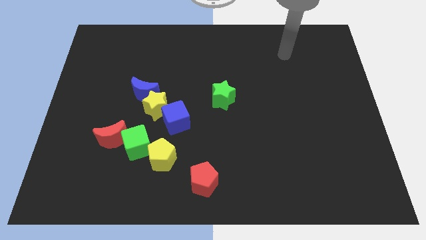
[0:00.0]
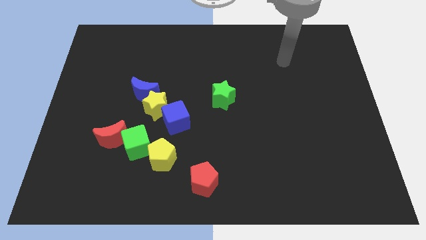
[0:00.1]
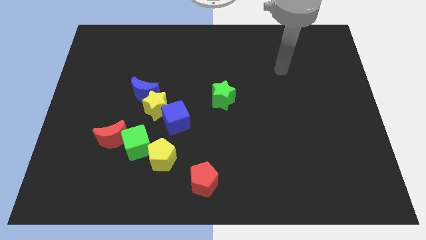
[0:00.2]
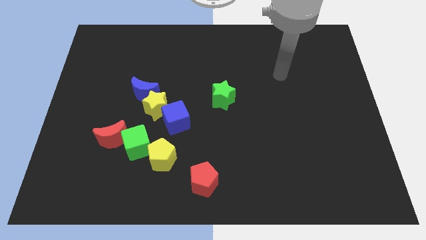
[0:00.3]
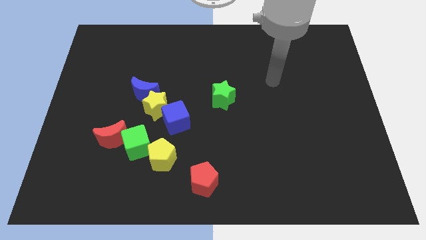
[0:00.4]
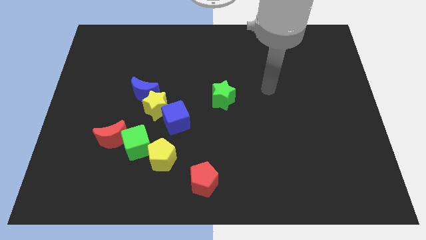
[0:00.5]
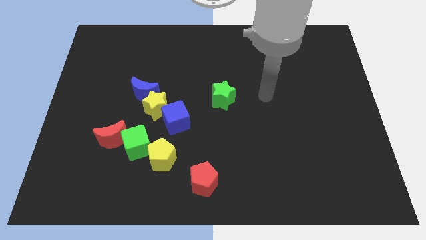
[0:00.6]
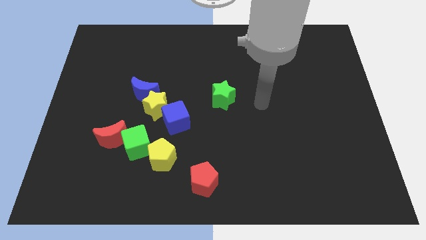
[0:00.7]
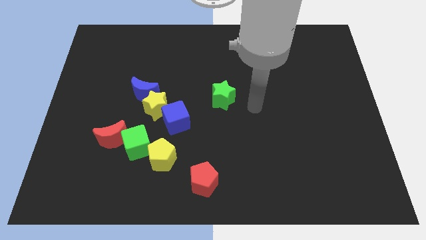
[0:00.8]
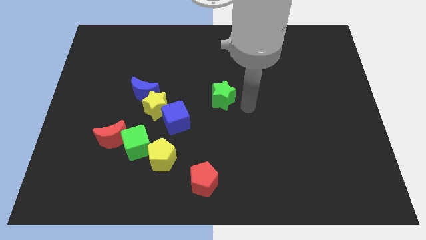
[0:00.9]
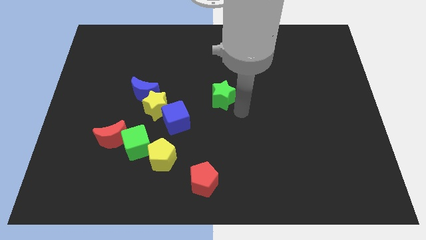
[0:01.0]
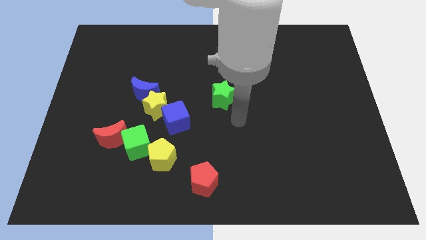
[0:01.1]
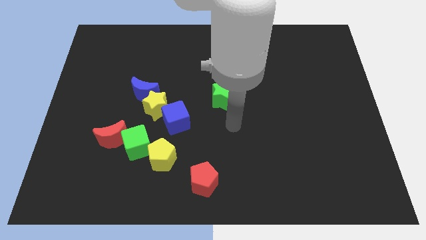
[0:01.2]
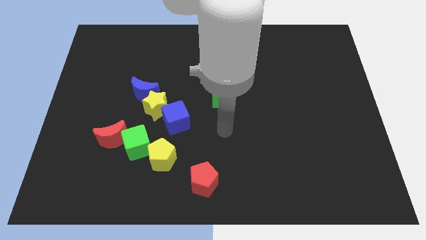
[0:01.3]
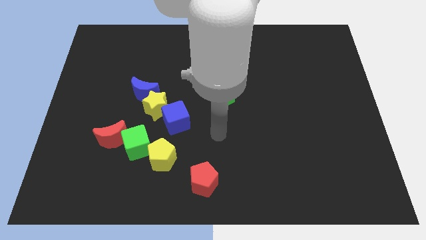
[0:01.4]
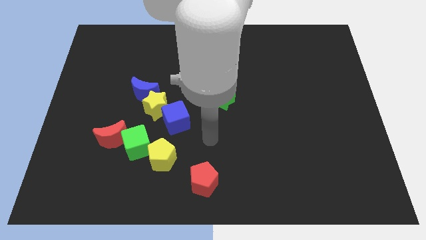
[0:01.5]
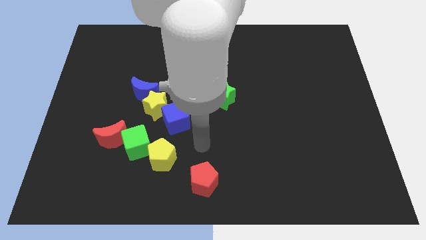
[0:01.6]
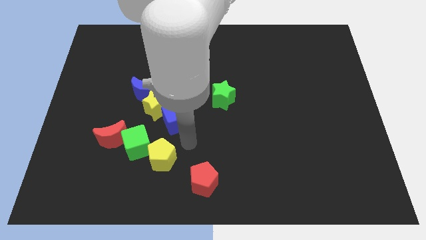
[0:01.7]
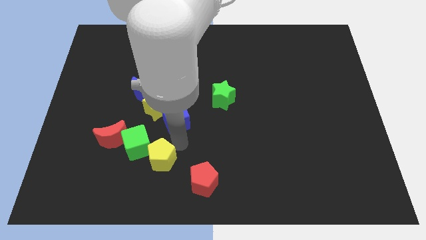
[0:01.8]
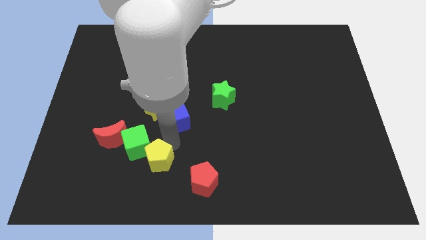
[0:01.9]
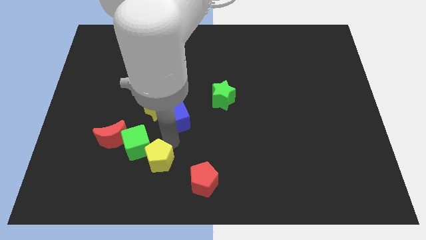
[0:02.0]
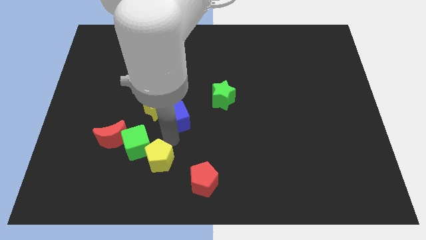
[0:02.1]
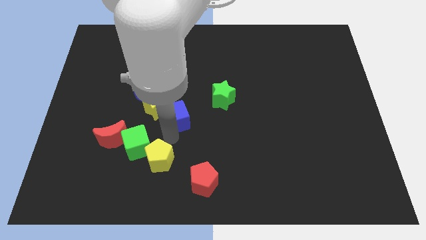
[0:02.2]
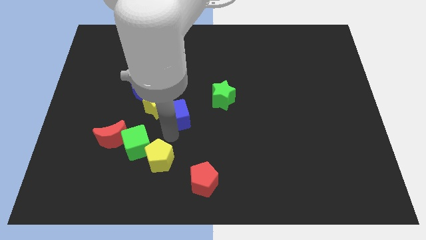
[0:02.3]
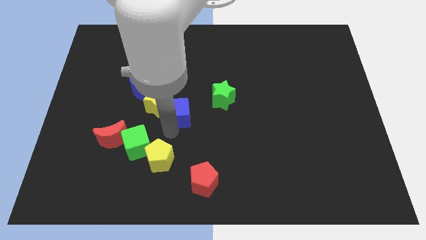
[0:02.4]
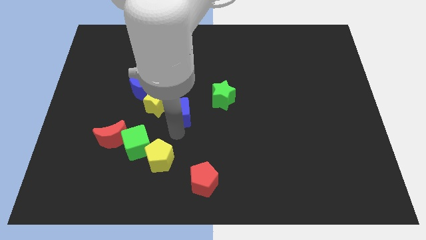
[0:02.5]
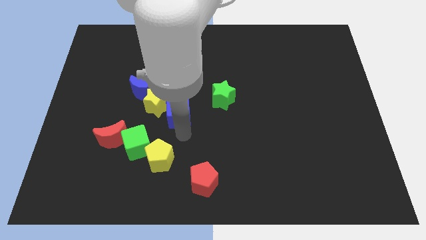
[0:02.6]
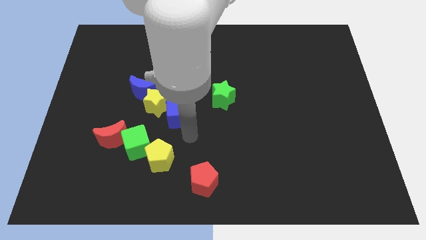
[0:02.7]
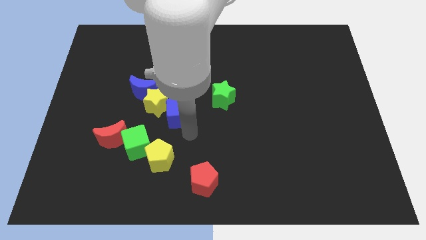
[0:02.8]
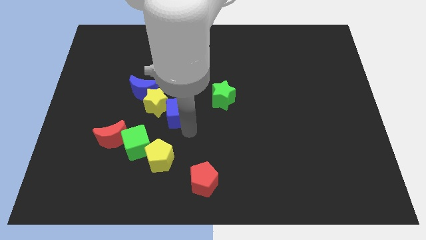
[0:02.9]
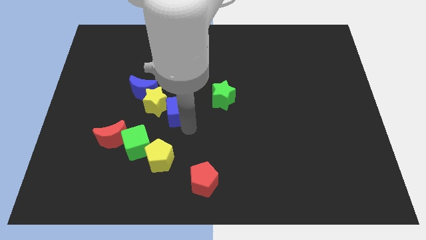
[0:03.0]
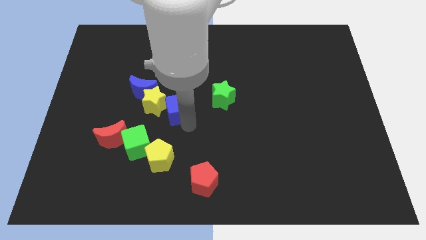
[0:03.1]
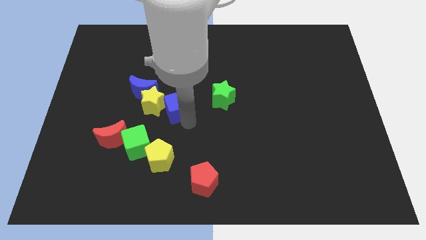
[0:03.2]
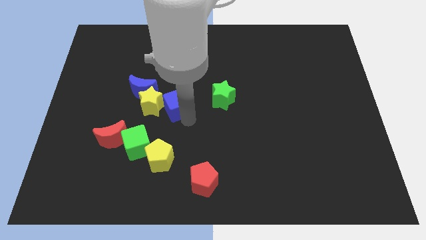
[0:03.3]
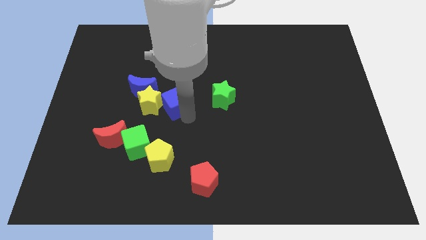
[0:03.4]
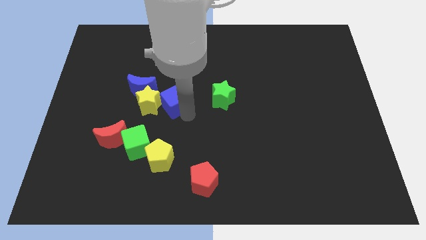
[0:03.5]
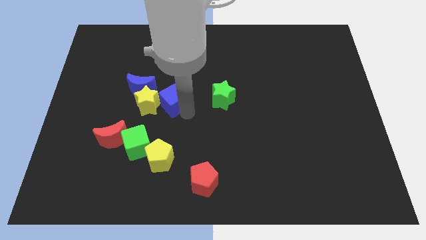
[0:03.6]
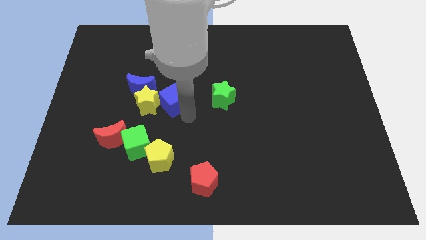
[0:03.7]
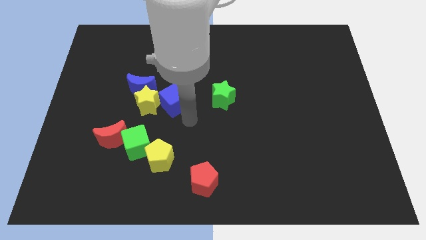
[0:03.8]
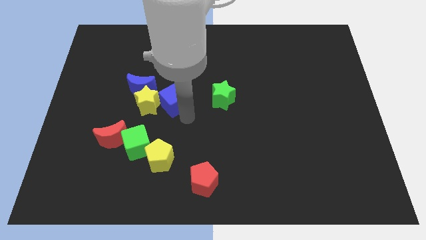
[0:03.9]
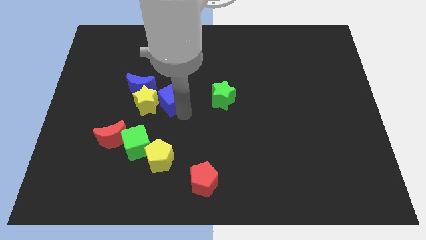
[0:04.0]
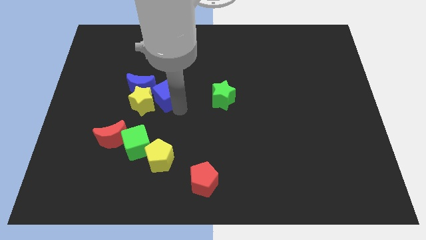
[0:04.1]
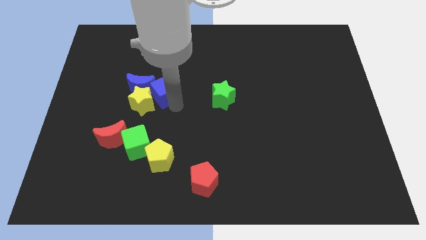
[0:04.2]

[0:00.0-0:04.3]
slide the blue cube up and to the left diagonally a little bit

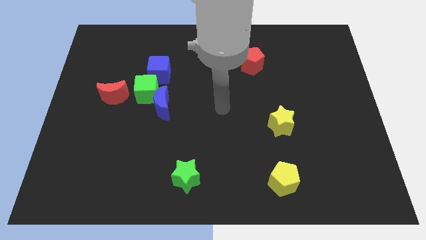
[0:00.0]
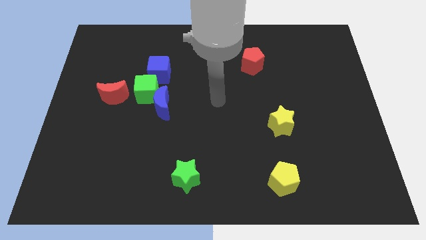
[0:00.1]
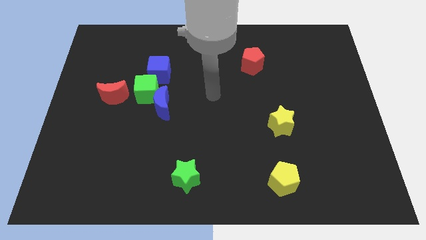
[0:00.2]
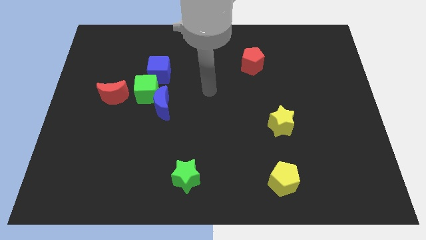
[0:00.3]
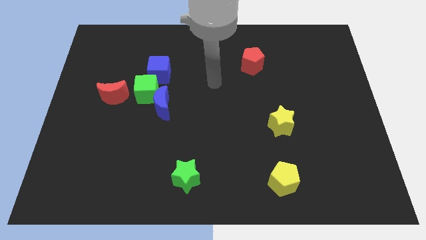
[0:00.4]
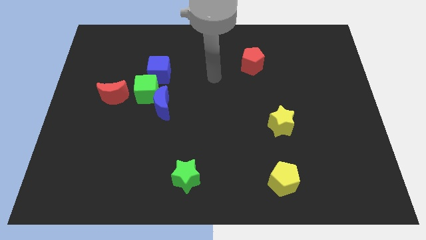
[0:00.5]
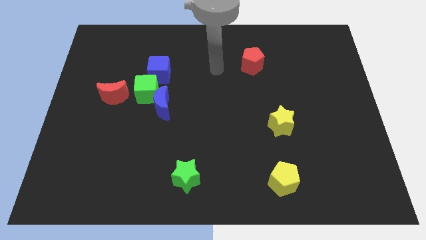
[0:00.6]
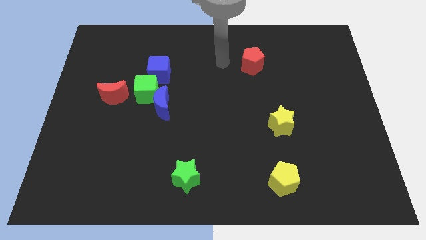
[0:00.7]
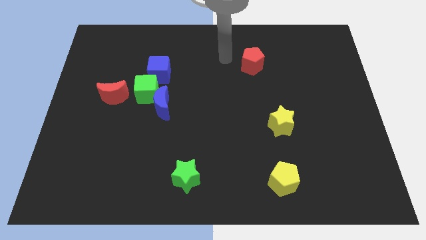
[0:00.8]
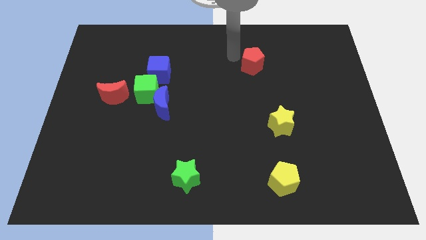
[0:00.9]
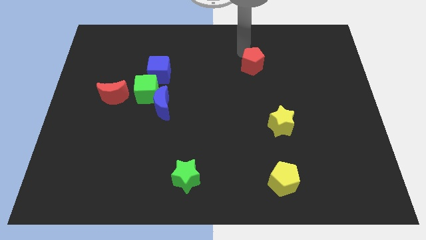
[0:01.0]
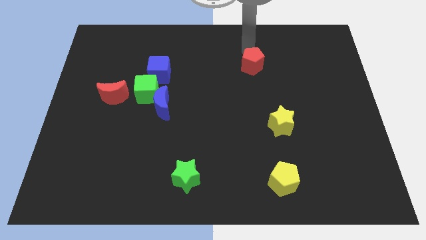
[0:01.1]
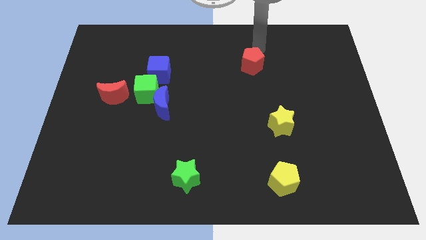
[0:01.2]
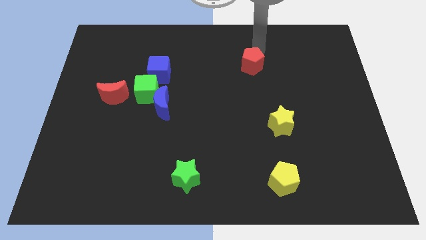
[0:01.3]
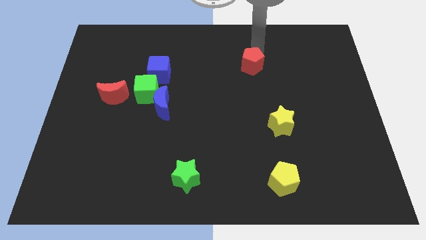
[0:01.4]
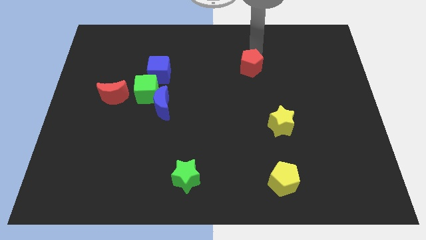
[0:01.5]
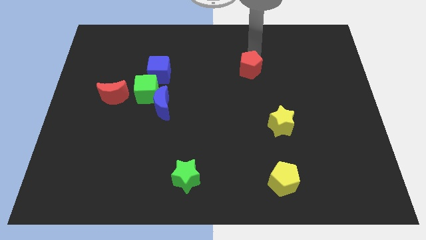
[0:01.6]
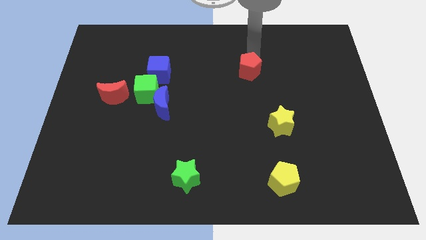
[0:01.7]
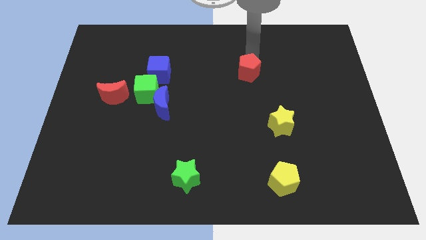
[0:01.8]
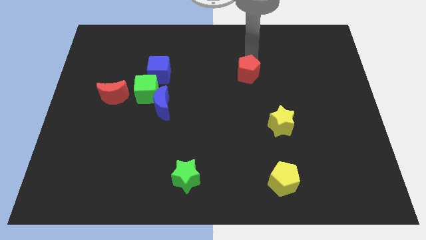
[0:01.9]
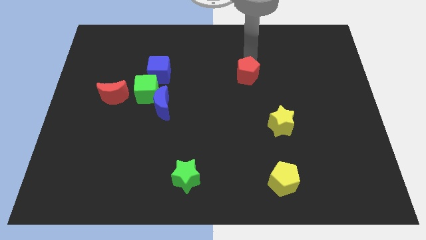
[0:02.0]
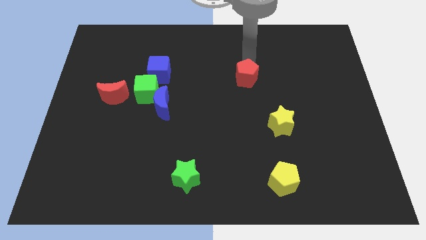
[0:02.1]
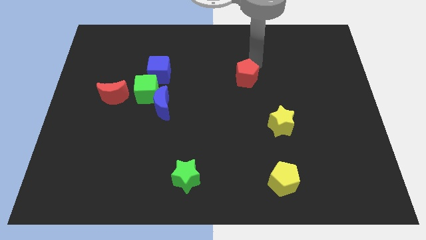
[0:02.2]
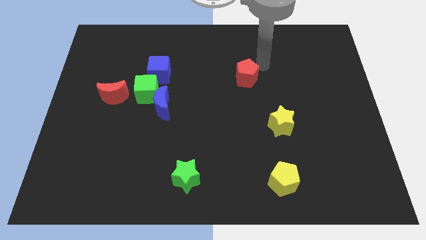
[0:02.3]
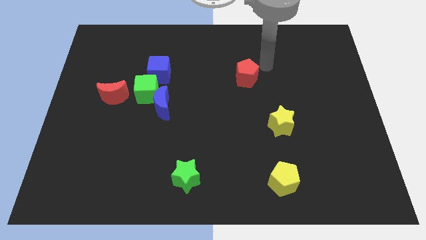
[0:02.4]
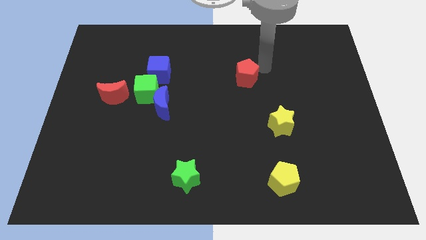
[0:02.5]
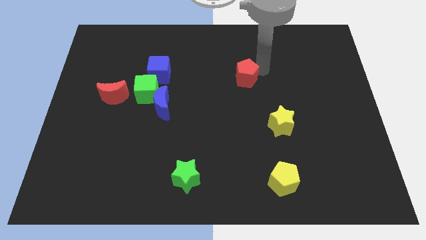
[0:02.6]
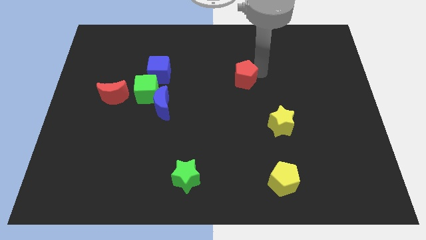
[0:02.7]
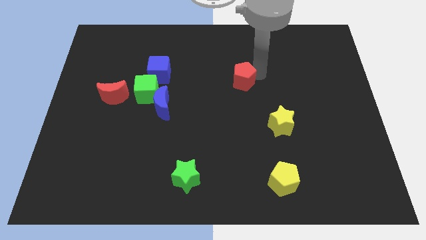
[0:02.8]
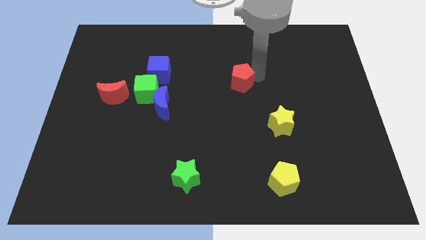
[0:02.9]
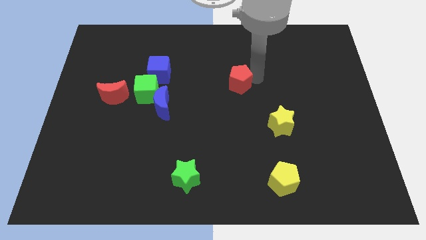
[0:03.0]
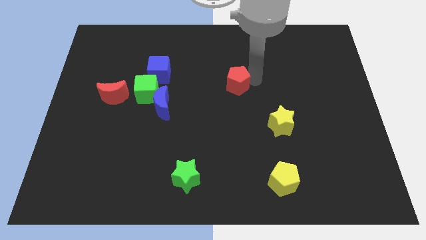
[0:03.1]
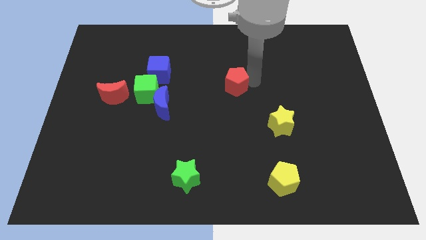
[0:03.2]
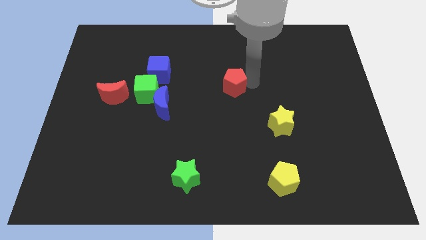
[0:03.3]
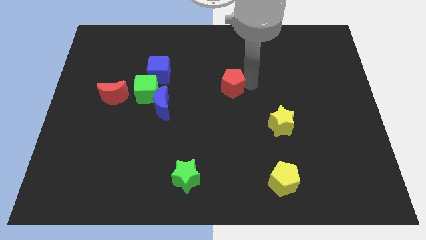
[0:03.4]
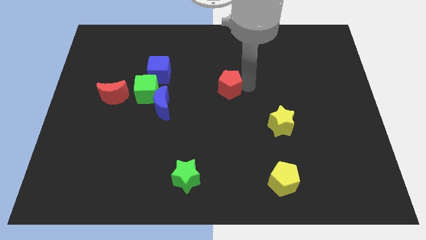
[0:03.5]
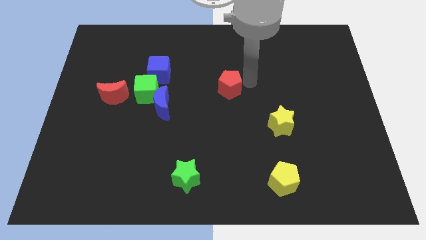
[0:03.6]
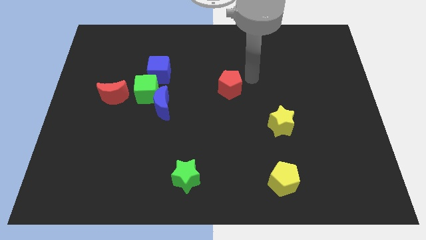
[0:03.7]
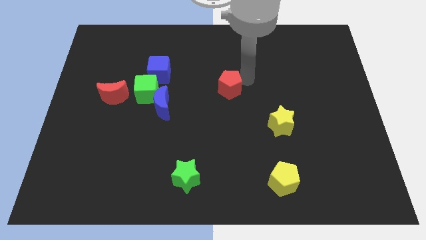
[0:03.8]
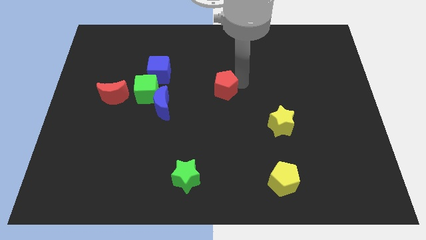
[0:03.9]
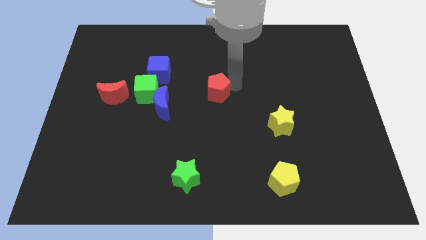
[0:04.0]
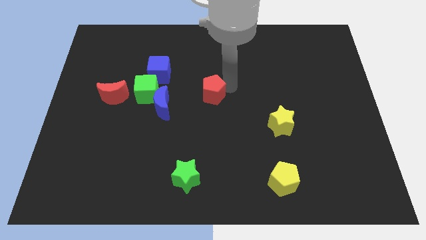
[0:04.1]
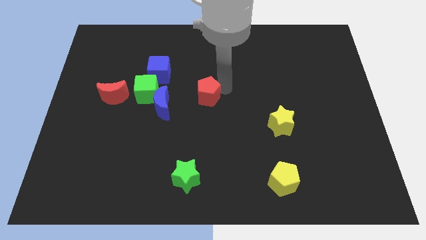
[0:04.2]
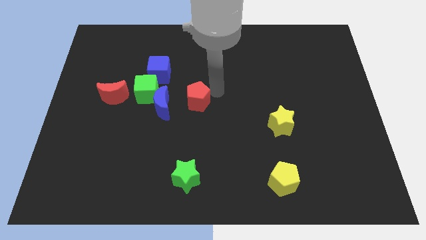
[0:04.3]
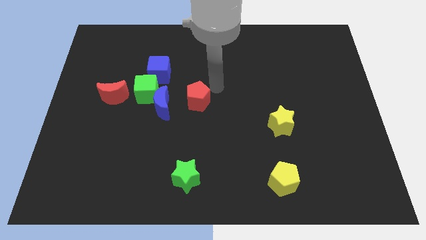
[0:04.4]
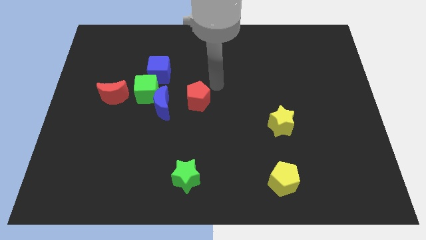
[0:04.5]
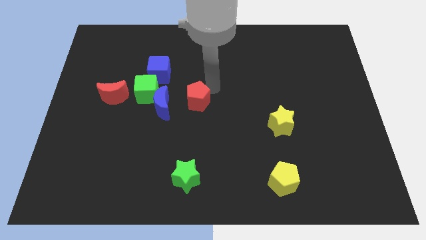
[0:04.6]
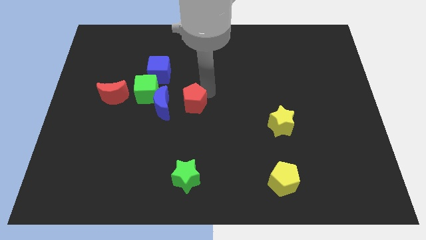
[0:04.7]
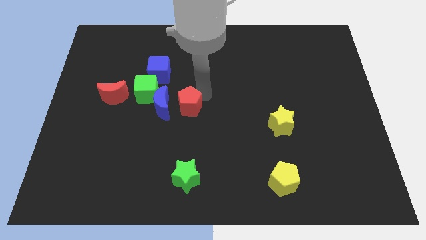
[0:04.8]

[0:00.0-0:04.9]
push the red pentagon down and then to the left
